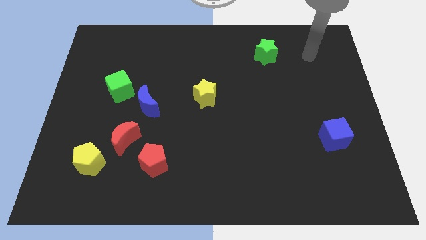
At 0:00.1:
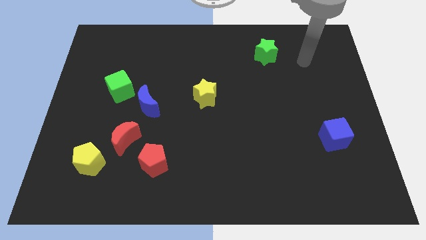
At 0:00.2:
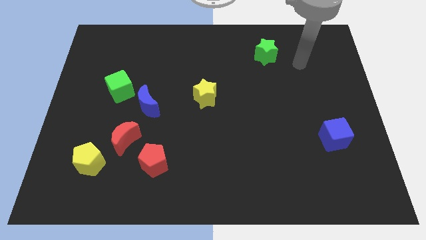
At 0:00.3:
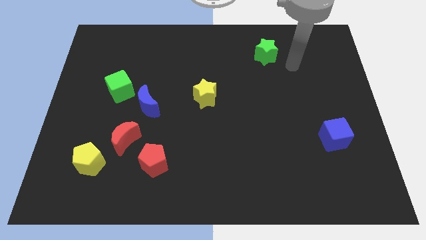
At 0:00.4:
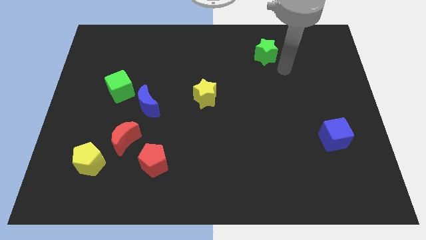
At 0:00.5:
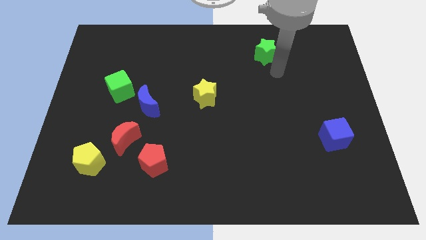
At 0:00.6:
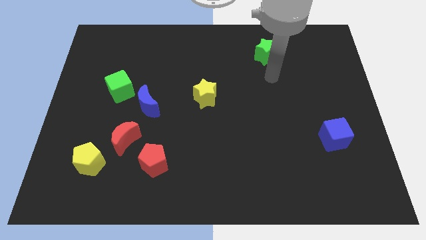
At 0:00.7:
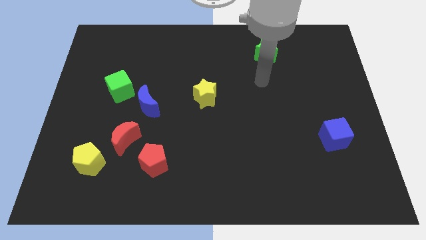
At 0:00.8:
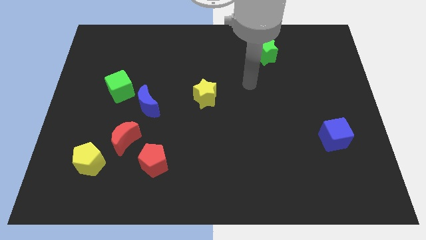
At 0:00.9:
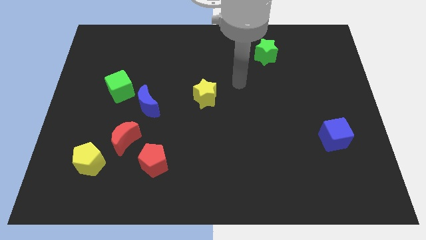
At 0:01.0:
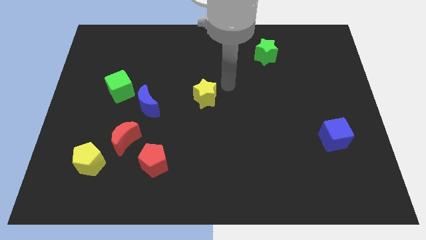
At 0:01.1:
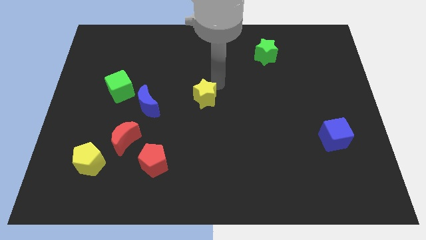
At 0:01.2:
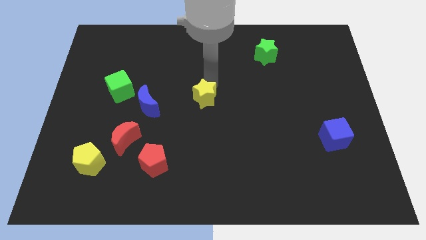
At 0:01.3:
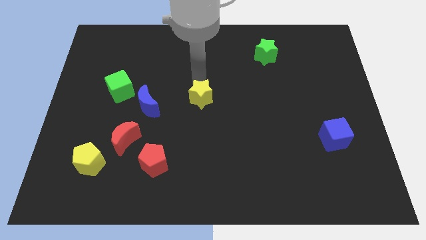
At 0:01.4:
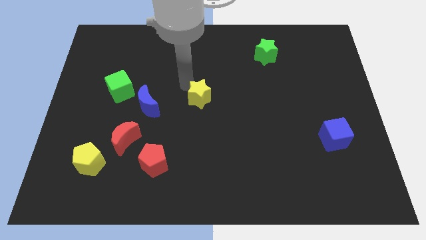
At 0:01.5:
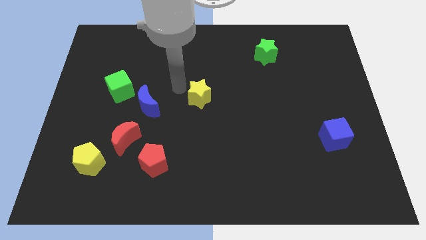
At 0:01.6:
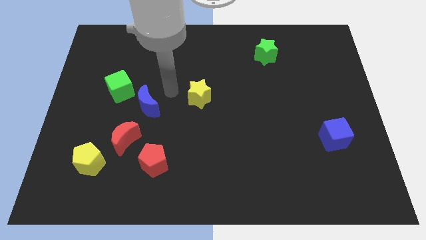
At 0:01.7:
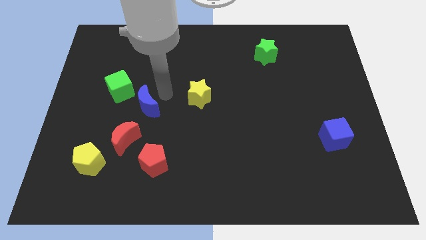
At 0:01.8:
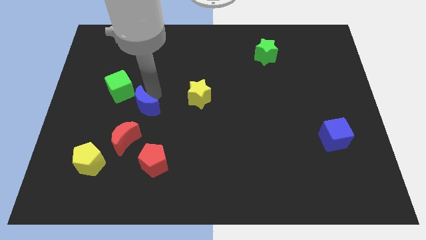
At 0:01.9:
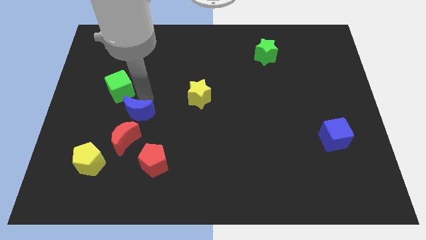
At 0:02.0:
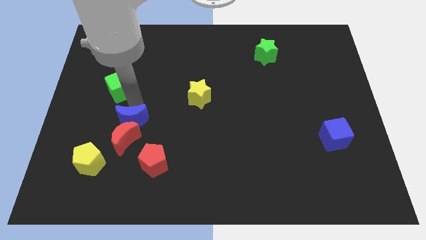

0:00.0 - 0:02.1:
pull the green cube apart from the blue moon

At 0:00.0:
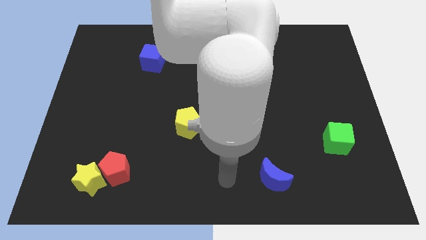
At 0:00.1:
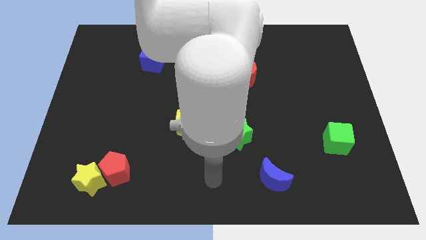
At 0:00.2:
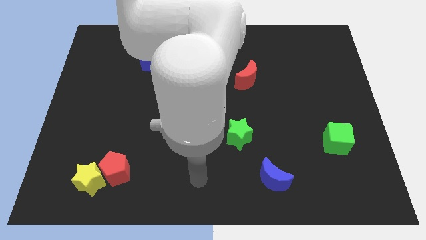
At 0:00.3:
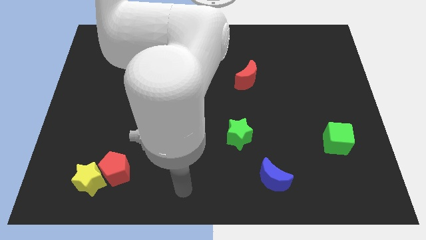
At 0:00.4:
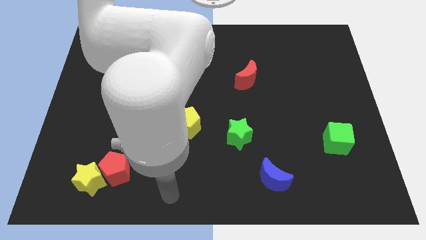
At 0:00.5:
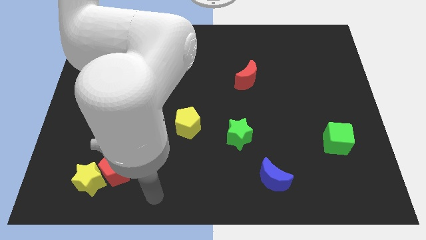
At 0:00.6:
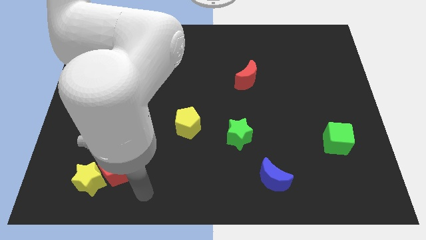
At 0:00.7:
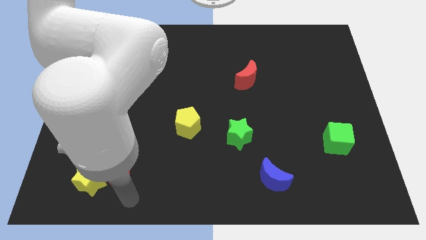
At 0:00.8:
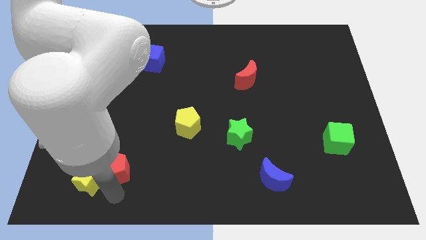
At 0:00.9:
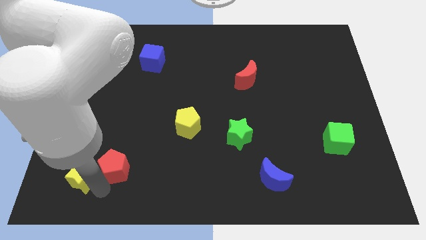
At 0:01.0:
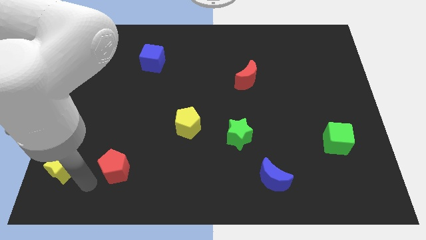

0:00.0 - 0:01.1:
move the red pentagon away from the yellow star

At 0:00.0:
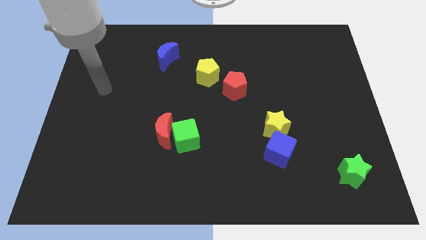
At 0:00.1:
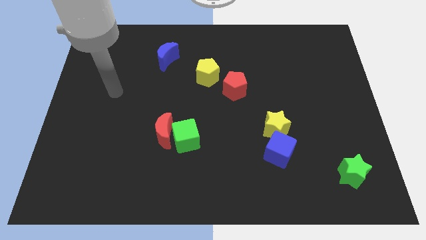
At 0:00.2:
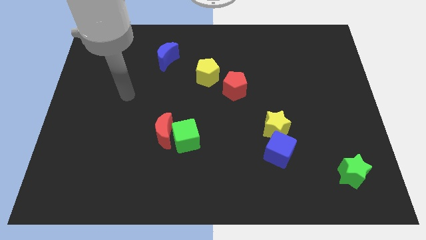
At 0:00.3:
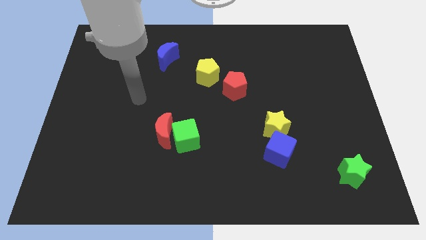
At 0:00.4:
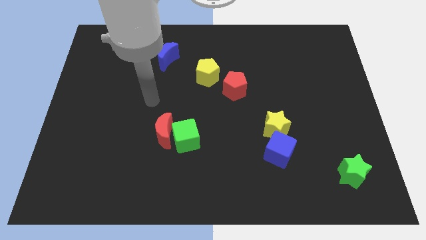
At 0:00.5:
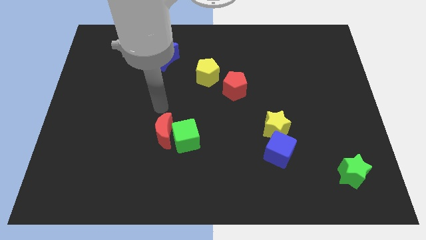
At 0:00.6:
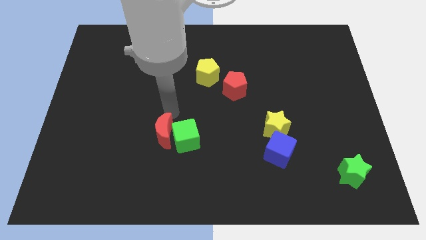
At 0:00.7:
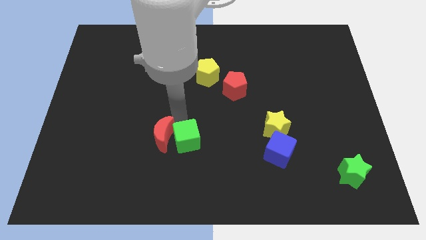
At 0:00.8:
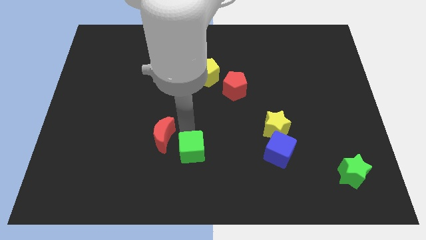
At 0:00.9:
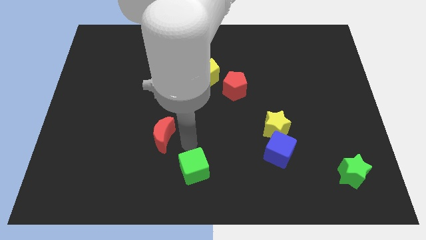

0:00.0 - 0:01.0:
move the red moon away from the green cube

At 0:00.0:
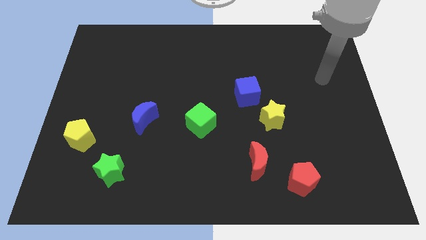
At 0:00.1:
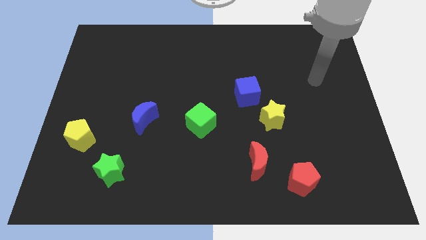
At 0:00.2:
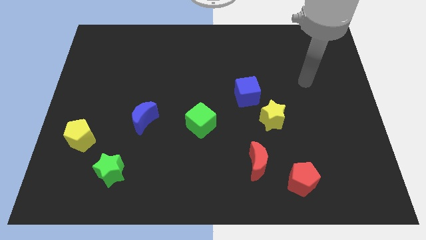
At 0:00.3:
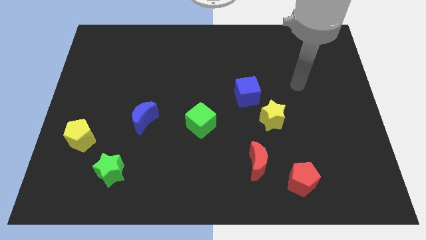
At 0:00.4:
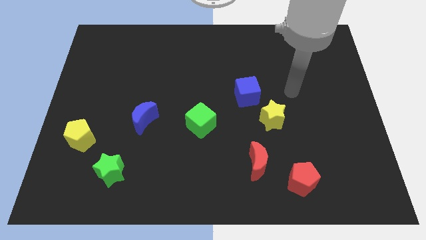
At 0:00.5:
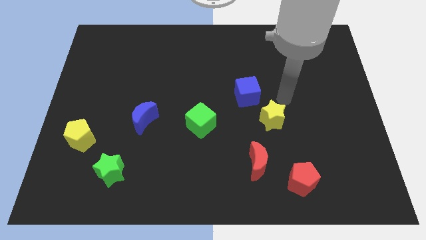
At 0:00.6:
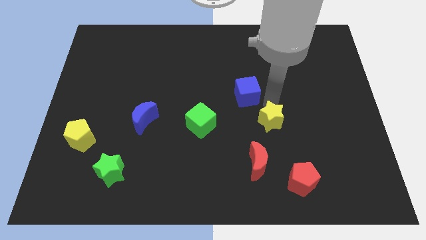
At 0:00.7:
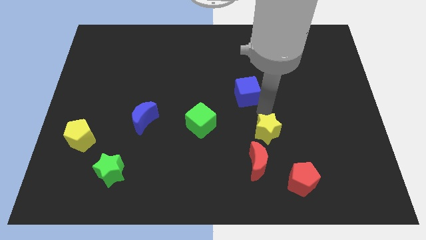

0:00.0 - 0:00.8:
pull the blue cube apart from the yellow star

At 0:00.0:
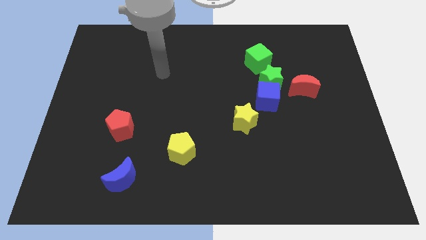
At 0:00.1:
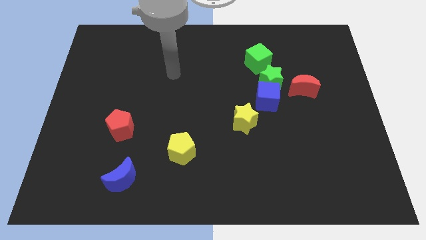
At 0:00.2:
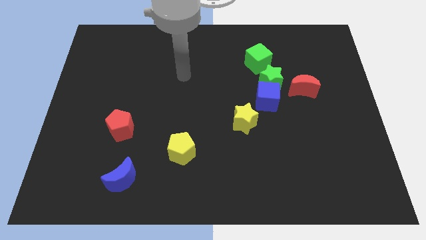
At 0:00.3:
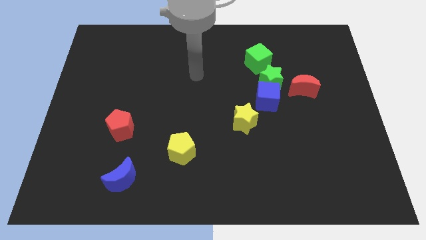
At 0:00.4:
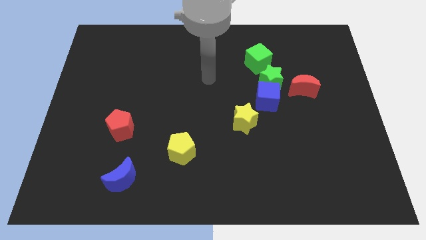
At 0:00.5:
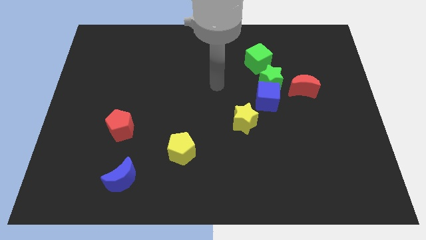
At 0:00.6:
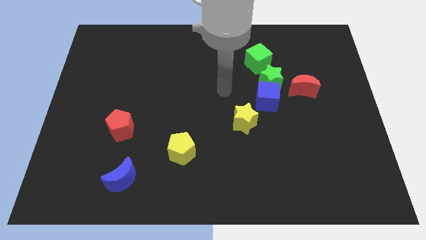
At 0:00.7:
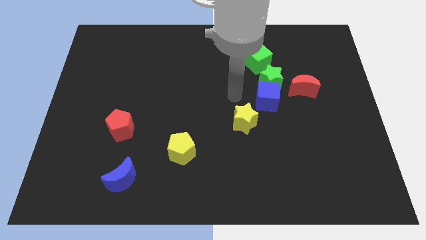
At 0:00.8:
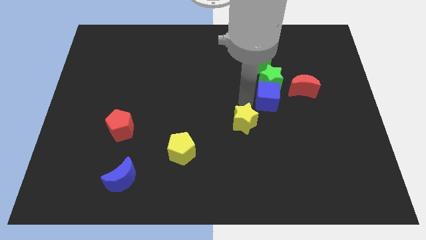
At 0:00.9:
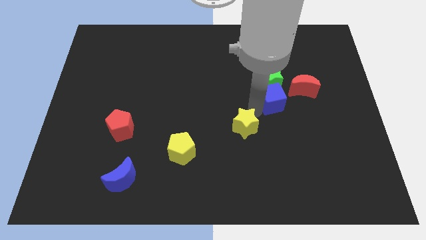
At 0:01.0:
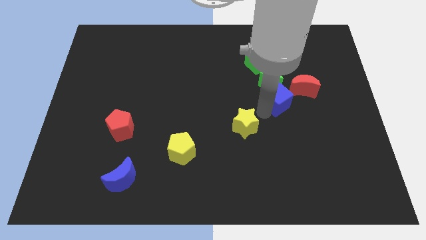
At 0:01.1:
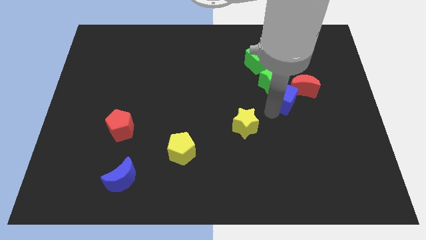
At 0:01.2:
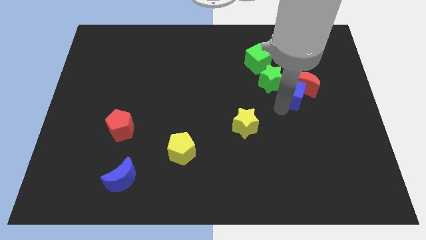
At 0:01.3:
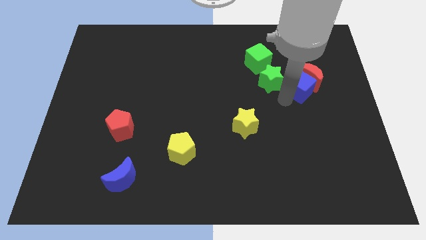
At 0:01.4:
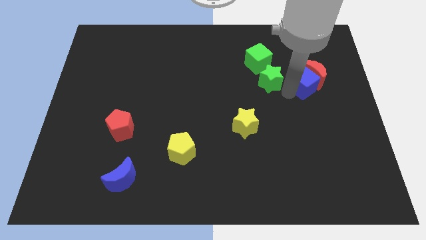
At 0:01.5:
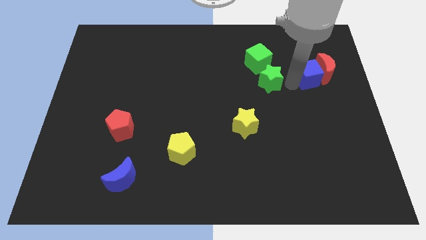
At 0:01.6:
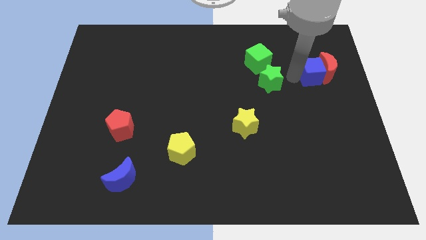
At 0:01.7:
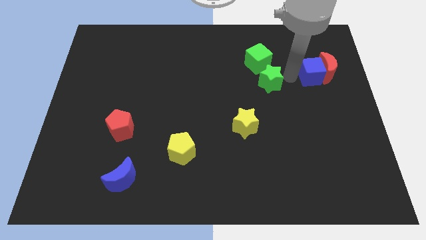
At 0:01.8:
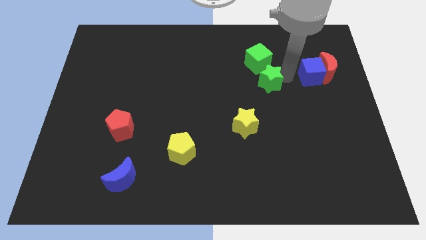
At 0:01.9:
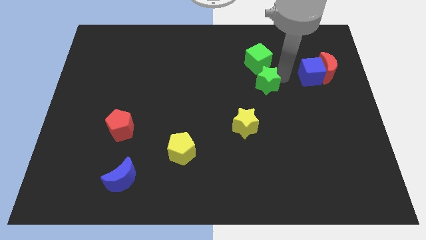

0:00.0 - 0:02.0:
move the green star away from the blue cube, green cube, and red moon

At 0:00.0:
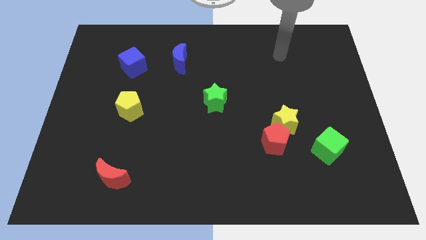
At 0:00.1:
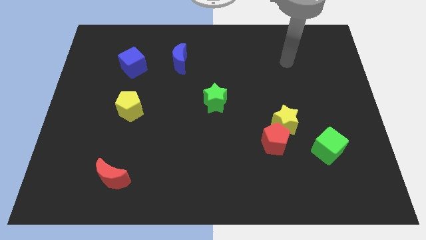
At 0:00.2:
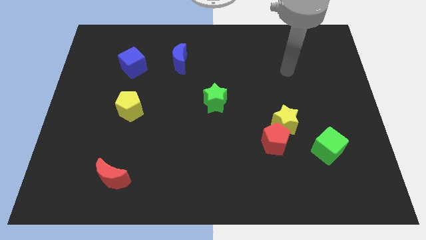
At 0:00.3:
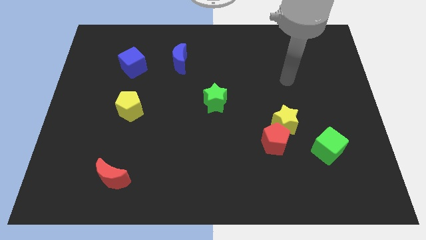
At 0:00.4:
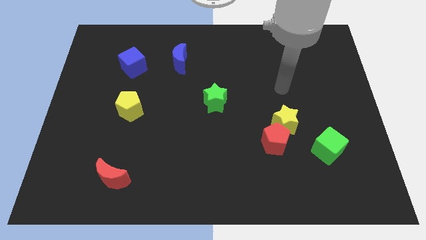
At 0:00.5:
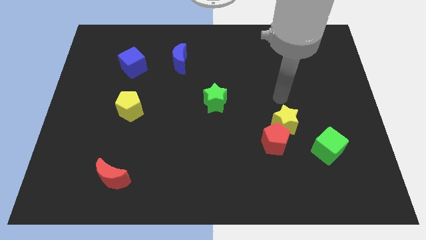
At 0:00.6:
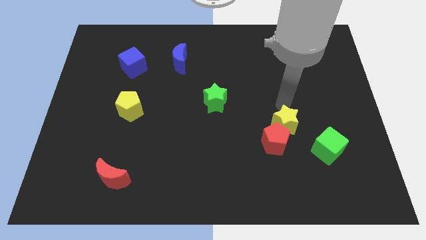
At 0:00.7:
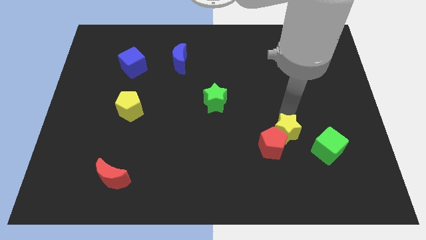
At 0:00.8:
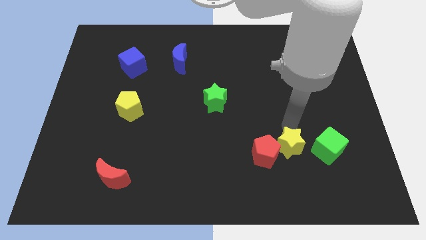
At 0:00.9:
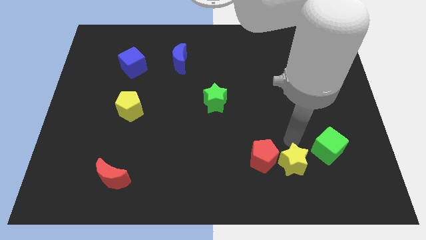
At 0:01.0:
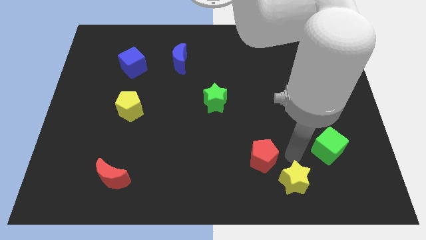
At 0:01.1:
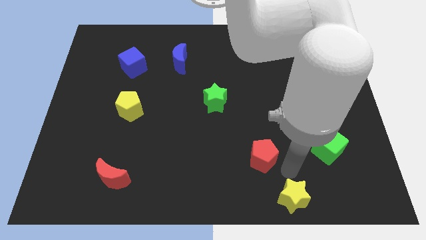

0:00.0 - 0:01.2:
pull the red pentagon apart from the yellow star

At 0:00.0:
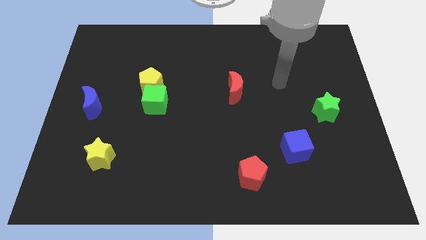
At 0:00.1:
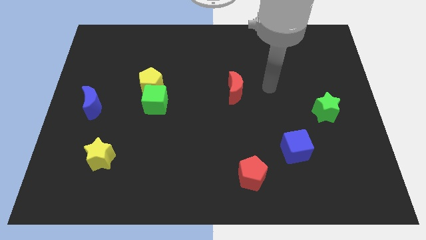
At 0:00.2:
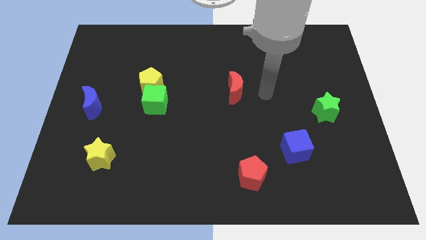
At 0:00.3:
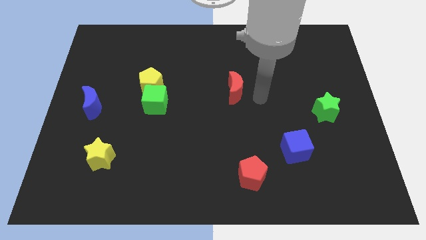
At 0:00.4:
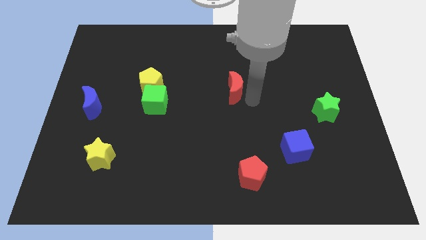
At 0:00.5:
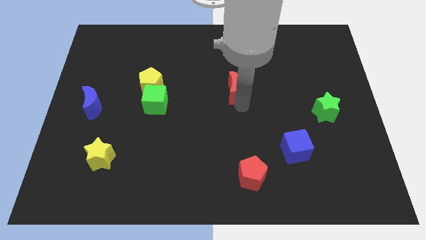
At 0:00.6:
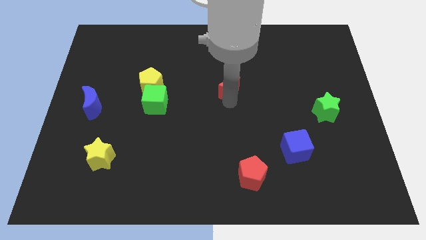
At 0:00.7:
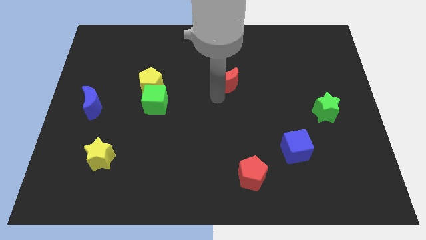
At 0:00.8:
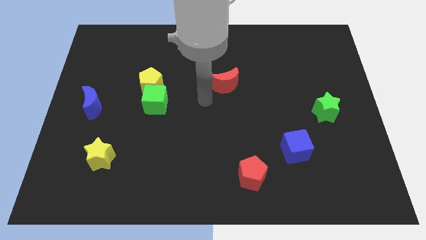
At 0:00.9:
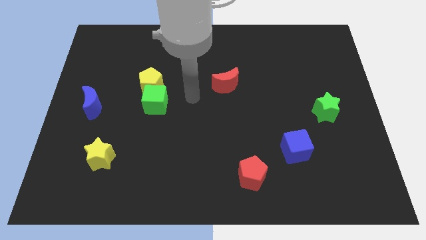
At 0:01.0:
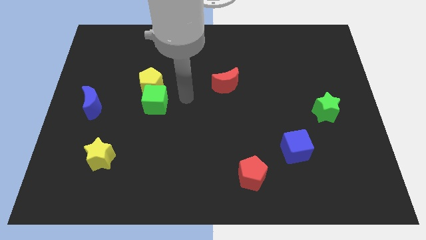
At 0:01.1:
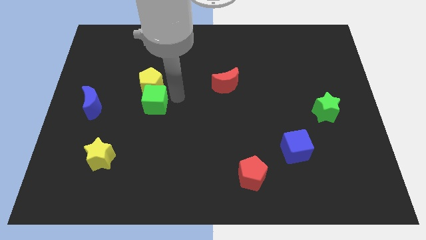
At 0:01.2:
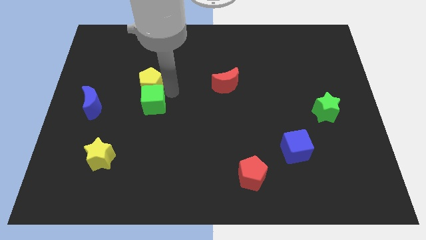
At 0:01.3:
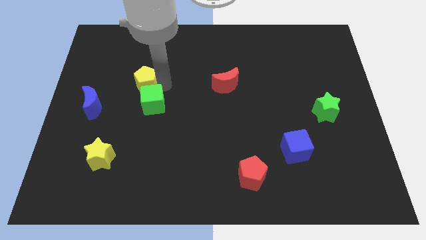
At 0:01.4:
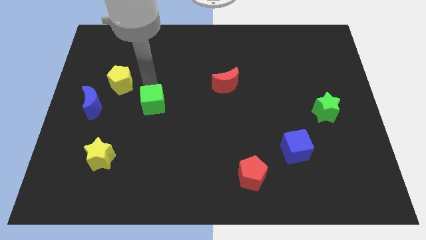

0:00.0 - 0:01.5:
pull the green cube apart from the yellow pentagon
